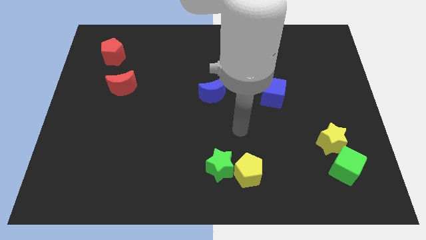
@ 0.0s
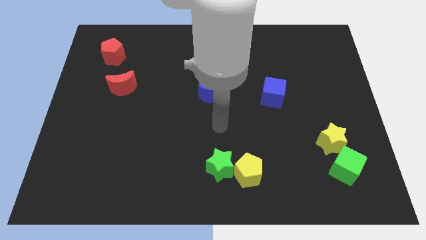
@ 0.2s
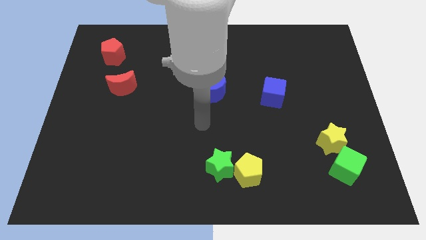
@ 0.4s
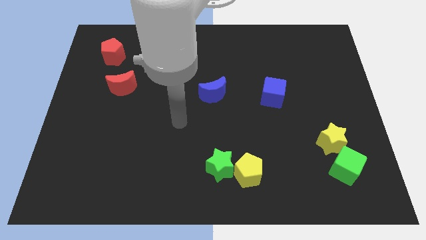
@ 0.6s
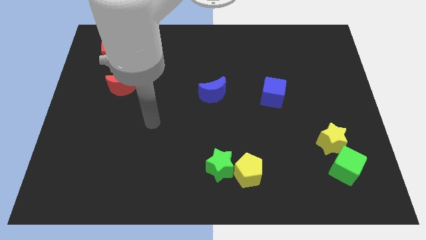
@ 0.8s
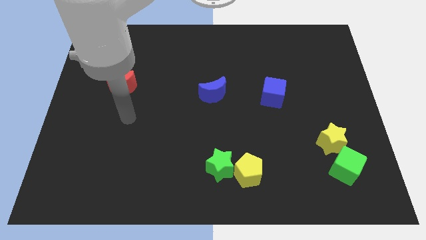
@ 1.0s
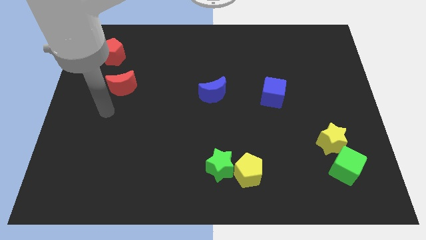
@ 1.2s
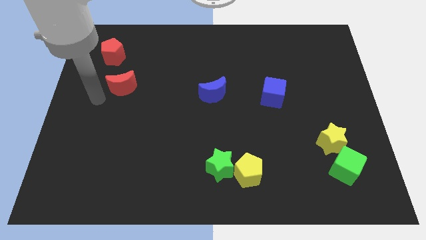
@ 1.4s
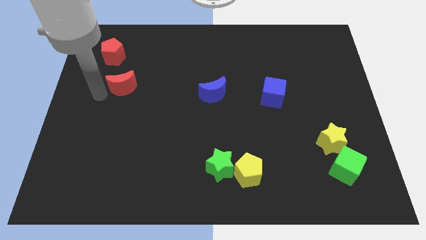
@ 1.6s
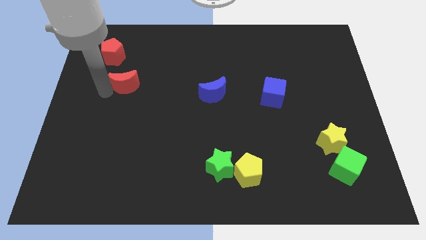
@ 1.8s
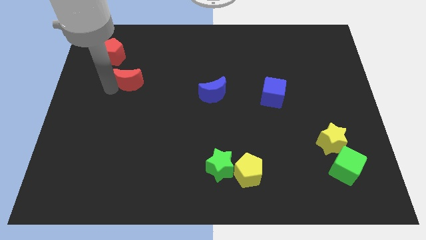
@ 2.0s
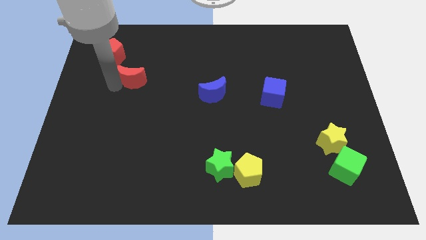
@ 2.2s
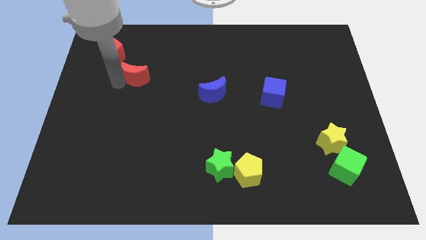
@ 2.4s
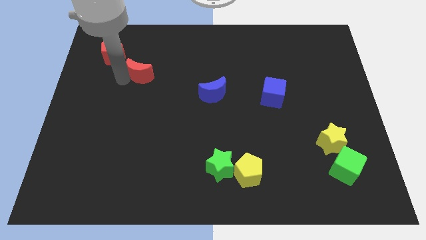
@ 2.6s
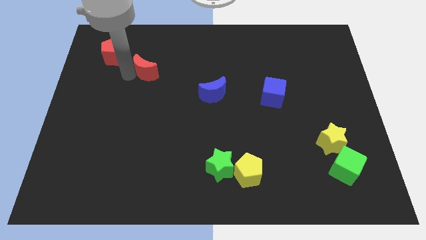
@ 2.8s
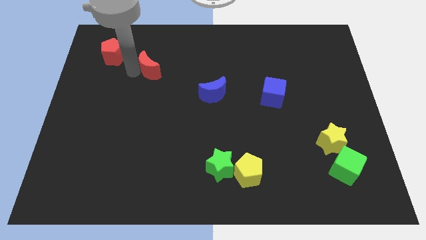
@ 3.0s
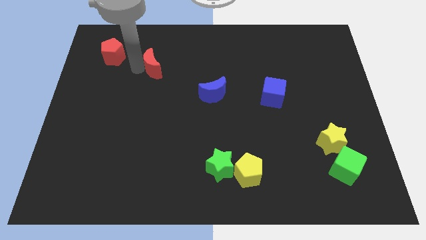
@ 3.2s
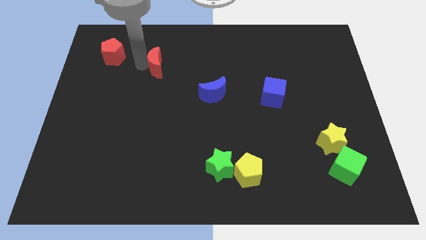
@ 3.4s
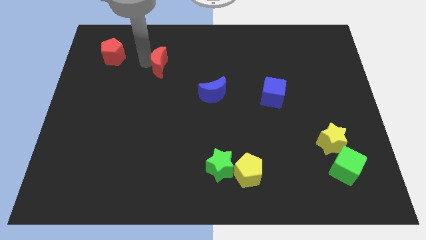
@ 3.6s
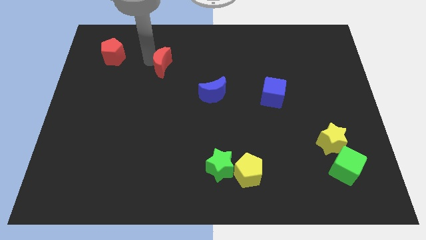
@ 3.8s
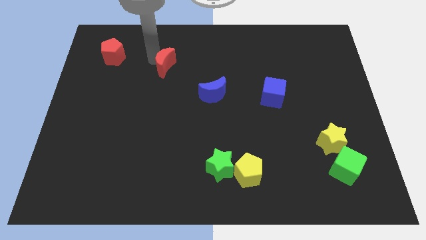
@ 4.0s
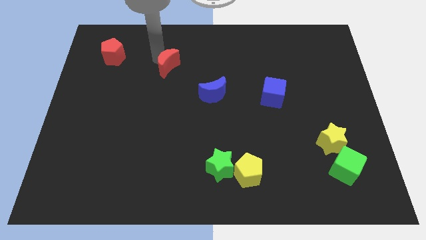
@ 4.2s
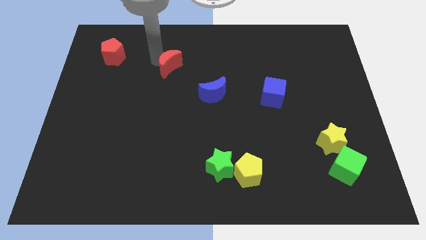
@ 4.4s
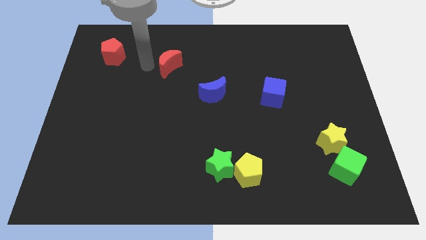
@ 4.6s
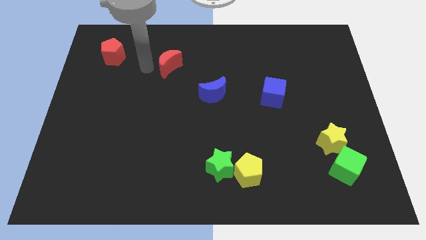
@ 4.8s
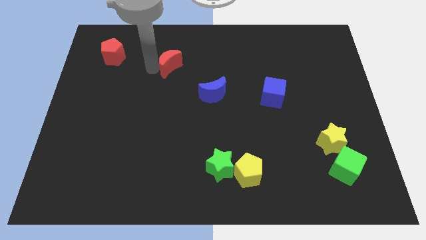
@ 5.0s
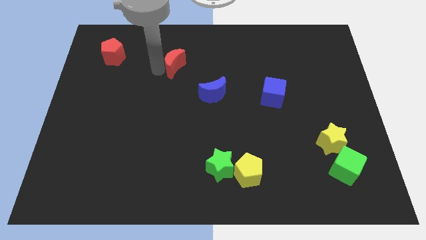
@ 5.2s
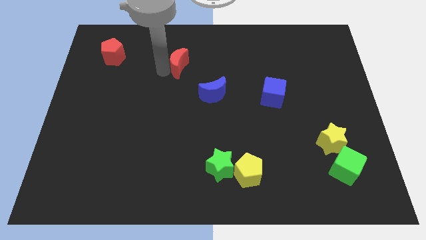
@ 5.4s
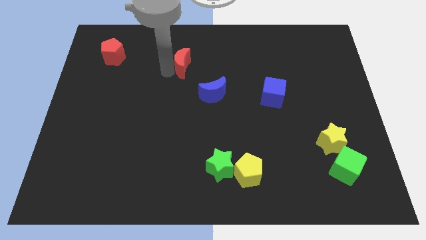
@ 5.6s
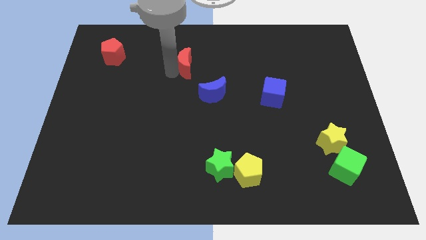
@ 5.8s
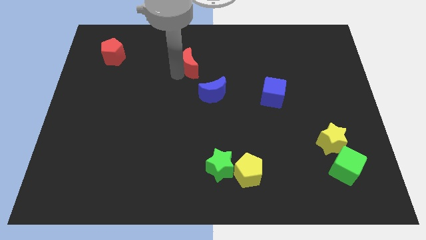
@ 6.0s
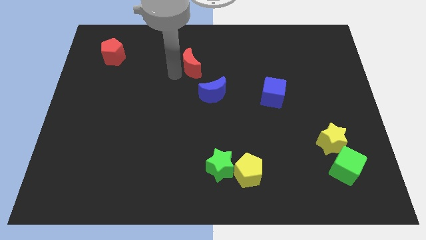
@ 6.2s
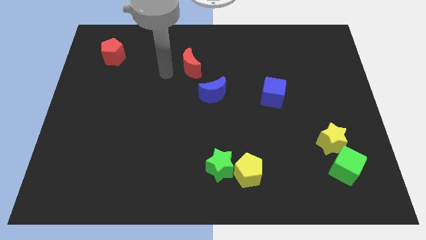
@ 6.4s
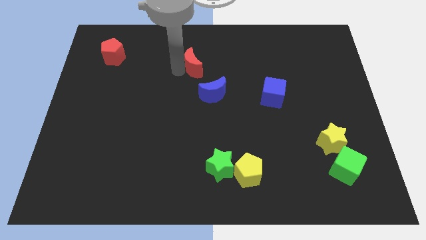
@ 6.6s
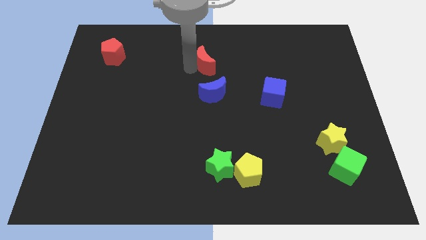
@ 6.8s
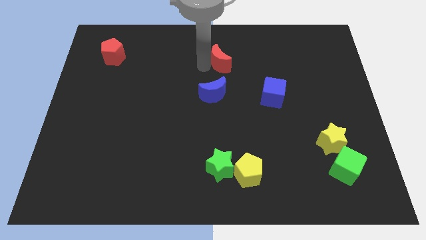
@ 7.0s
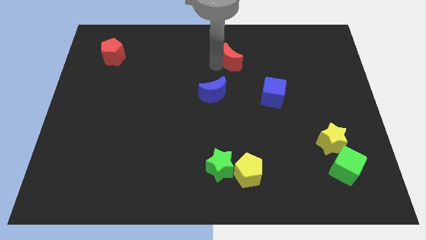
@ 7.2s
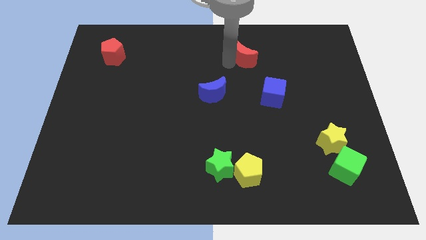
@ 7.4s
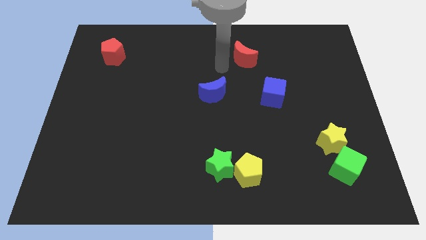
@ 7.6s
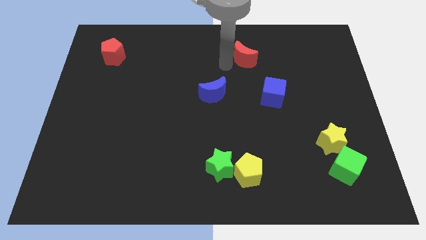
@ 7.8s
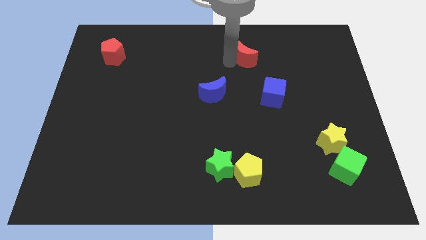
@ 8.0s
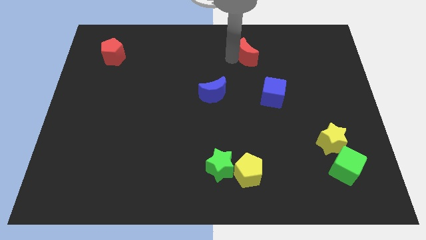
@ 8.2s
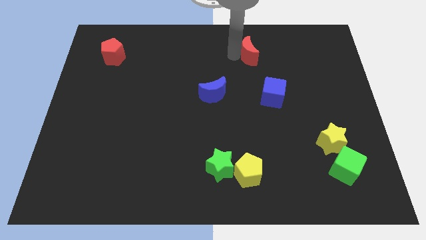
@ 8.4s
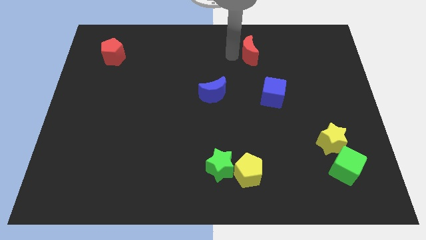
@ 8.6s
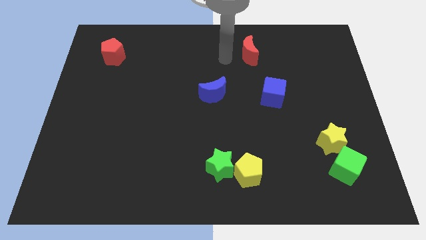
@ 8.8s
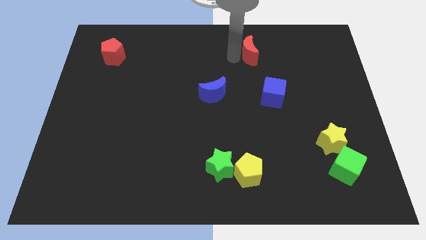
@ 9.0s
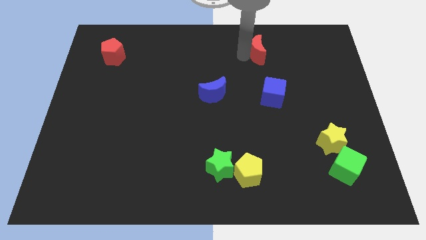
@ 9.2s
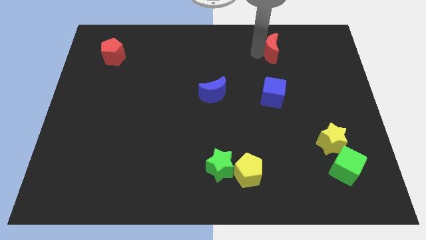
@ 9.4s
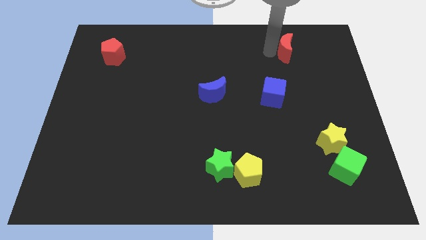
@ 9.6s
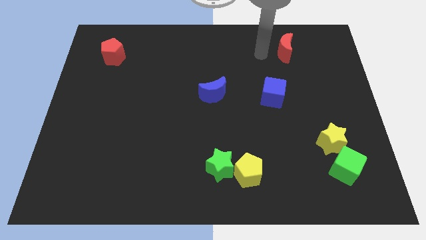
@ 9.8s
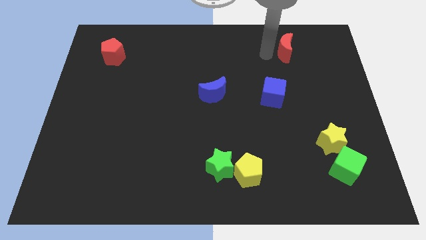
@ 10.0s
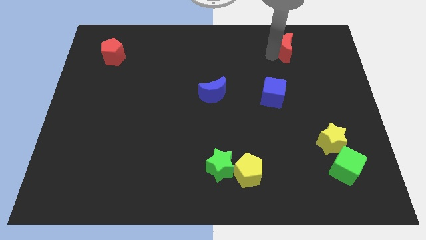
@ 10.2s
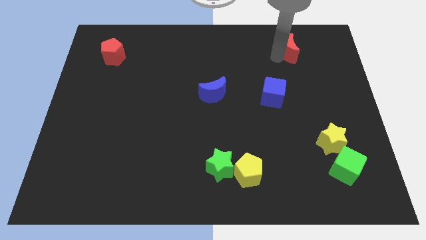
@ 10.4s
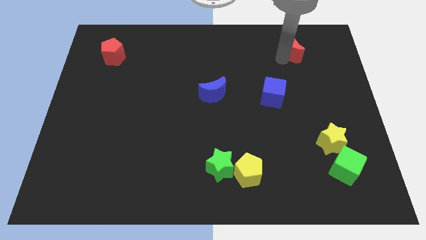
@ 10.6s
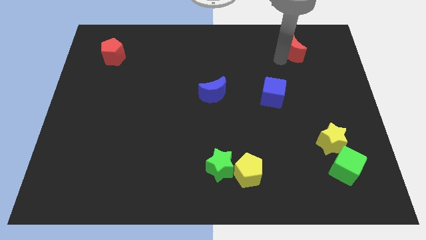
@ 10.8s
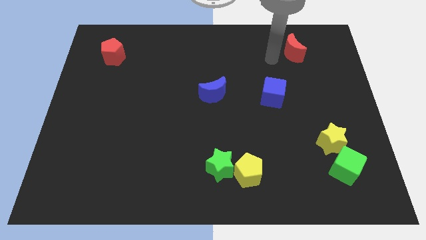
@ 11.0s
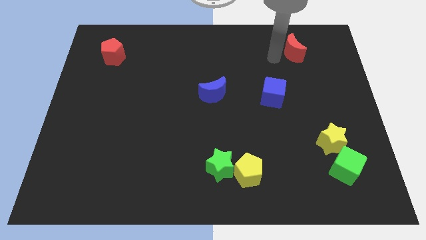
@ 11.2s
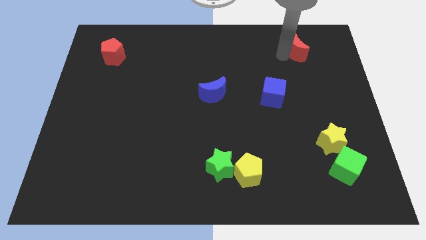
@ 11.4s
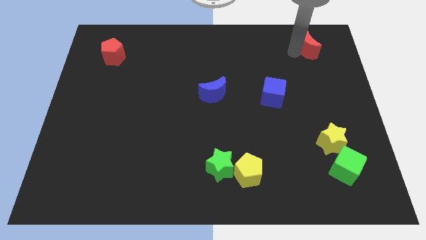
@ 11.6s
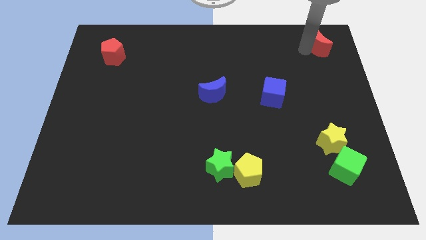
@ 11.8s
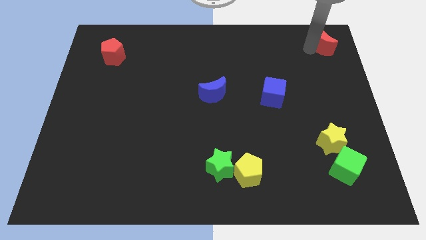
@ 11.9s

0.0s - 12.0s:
slide the red moon to the top right
